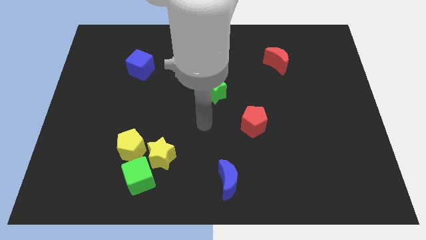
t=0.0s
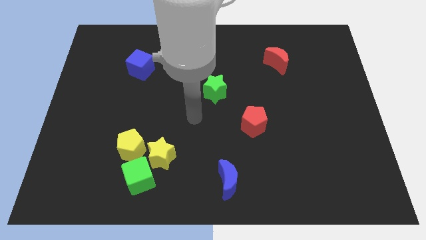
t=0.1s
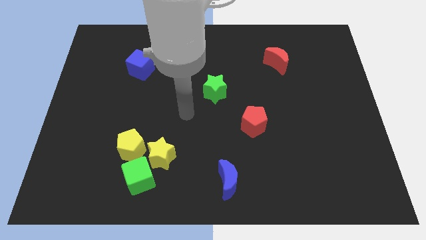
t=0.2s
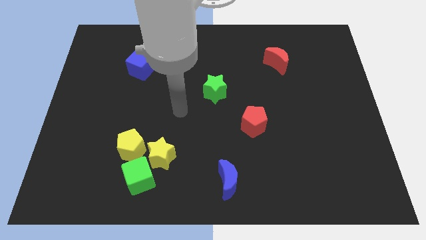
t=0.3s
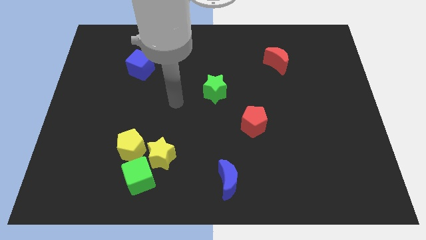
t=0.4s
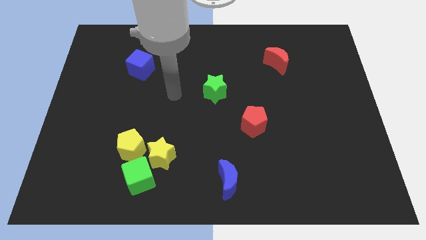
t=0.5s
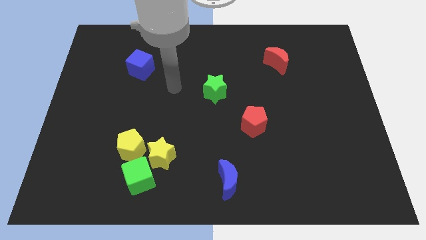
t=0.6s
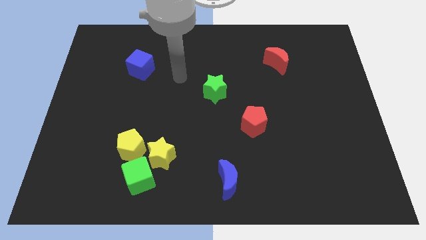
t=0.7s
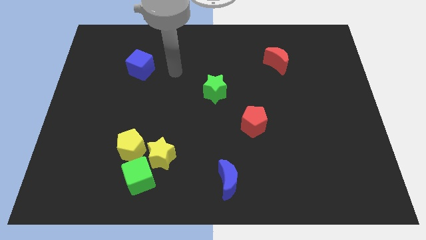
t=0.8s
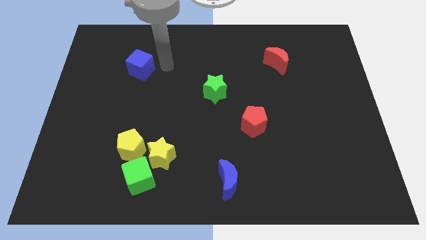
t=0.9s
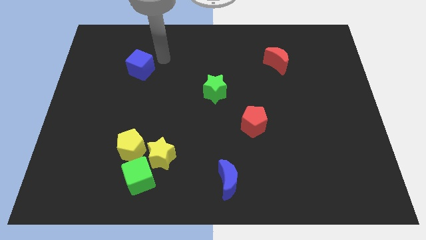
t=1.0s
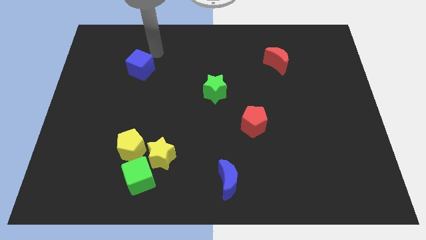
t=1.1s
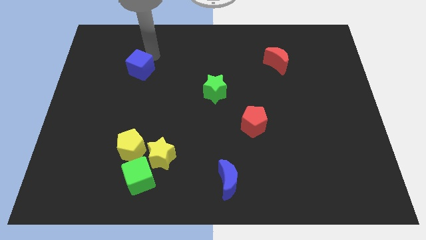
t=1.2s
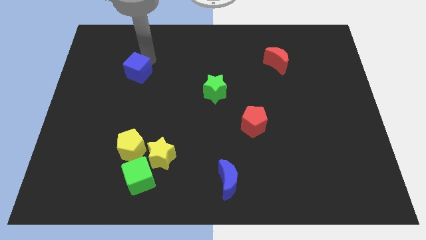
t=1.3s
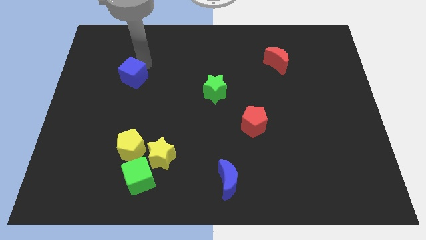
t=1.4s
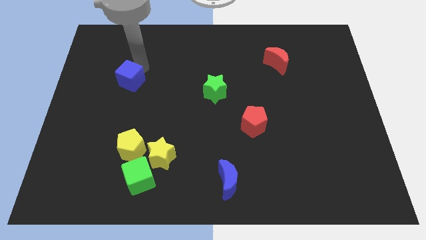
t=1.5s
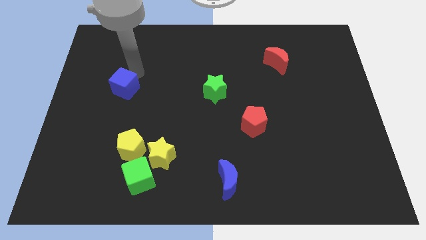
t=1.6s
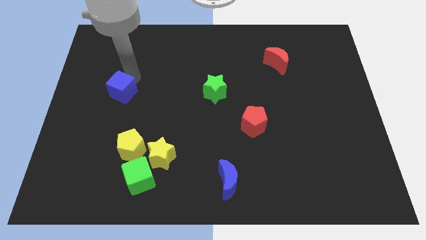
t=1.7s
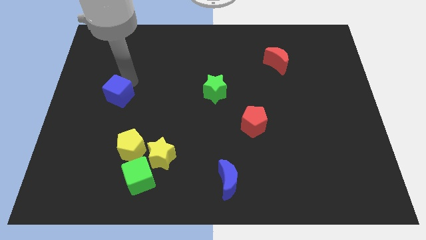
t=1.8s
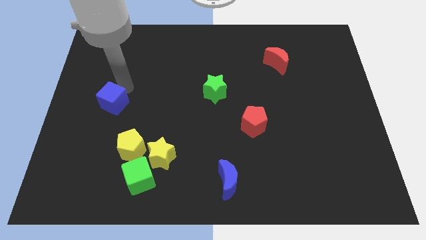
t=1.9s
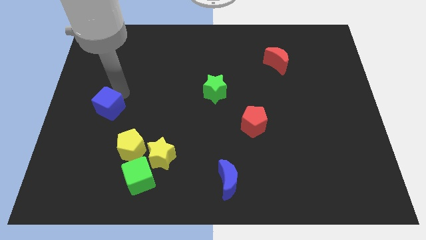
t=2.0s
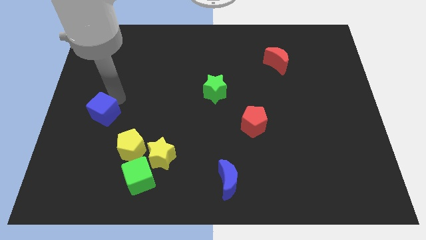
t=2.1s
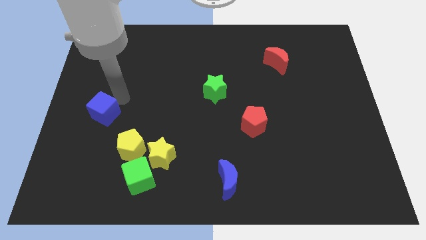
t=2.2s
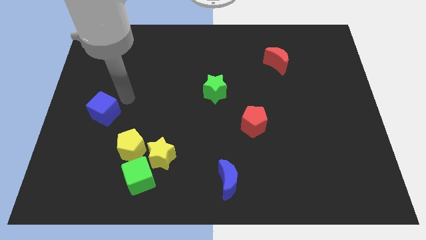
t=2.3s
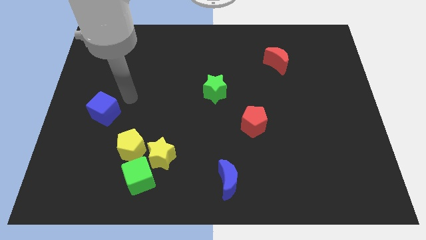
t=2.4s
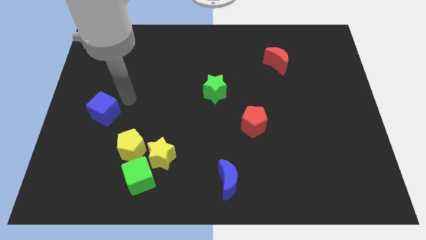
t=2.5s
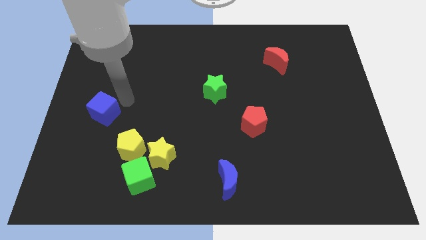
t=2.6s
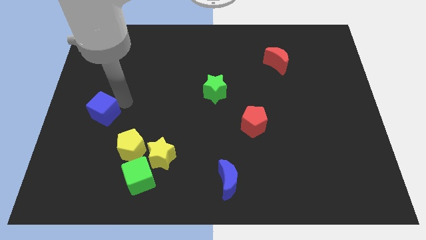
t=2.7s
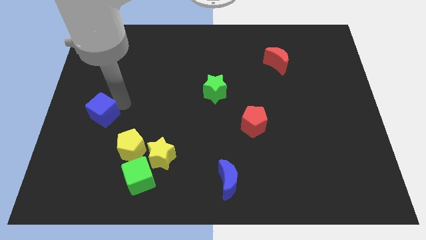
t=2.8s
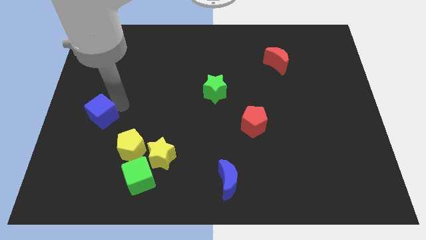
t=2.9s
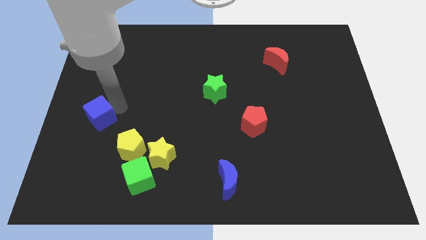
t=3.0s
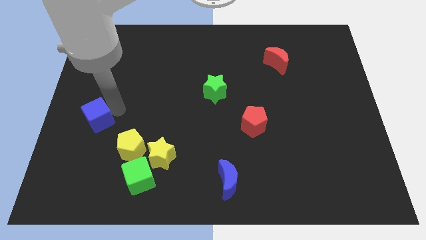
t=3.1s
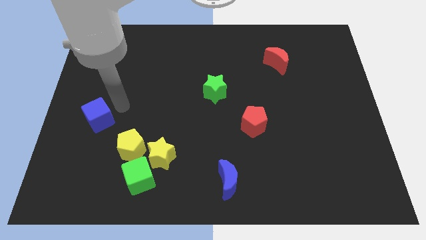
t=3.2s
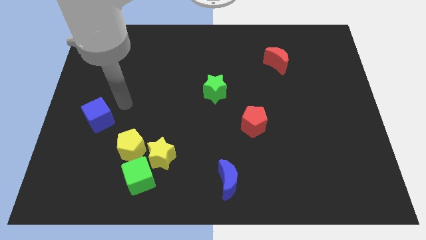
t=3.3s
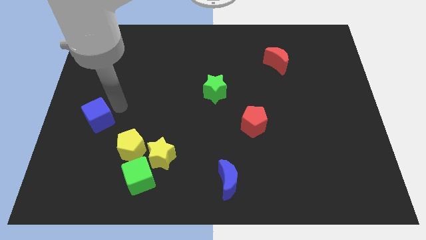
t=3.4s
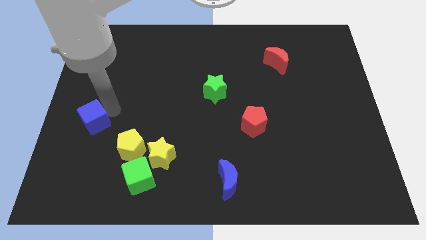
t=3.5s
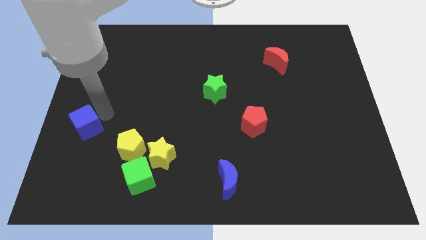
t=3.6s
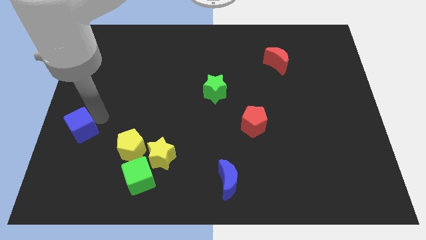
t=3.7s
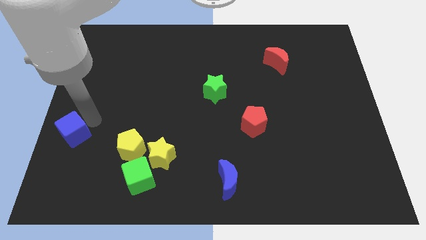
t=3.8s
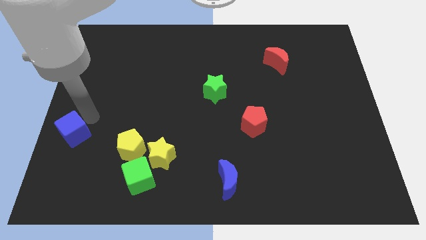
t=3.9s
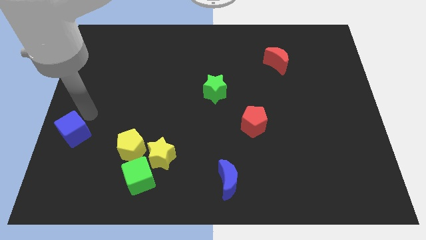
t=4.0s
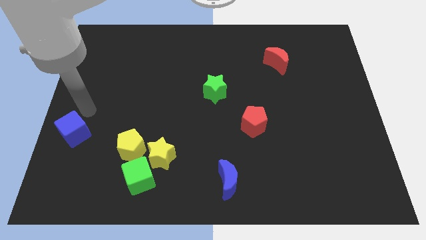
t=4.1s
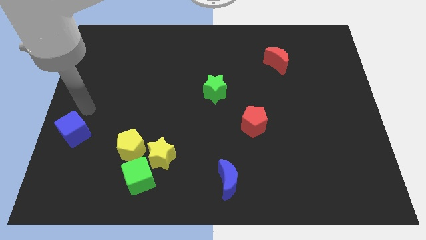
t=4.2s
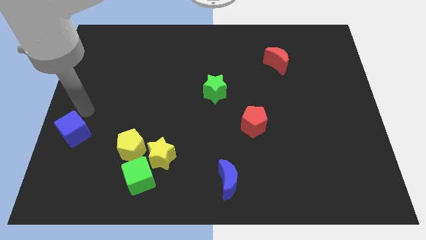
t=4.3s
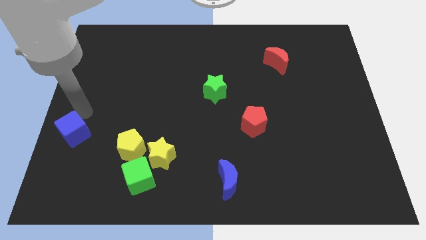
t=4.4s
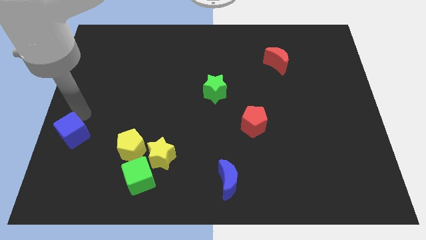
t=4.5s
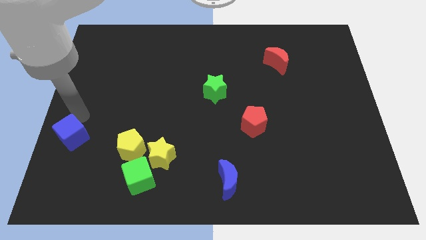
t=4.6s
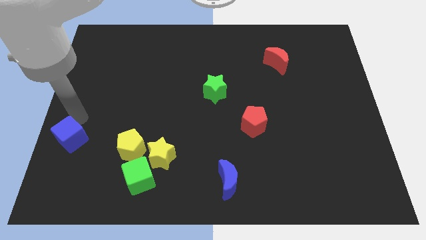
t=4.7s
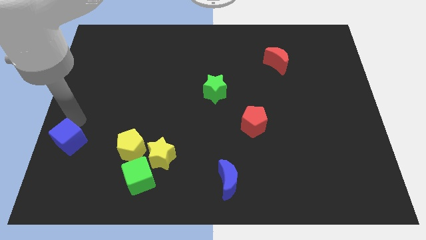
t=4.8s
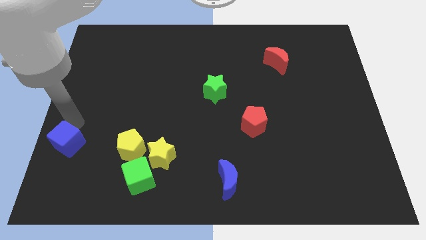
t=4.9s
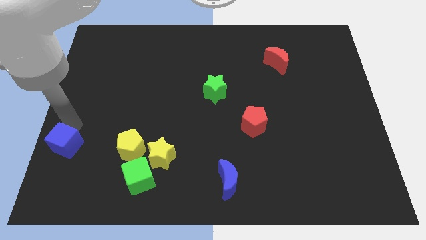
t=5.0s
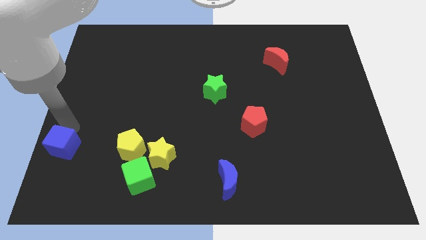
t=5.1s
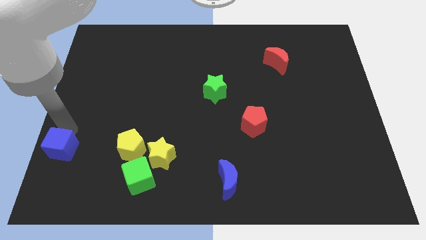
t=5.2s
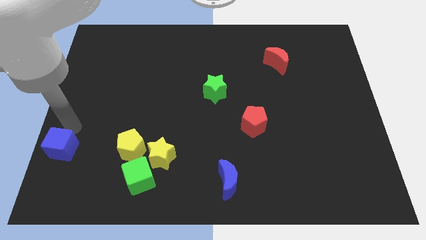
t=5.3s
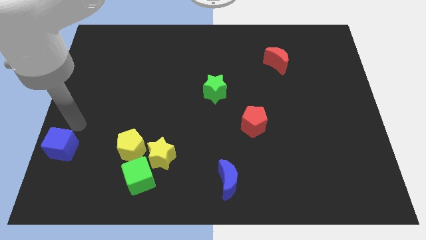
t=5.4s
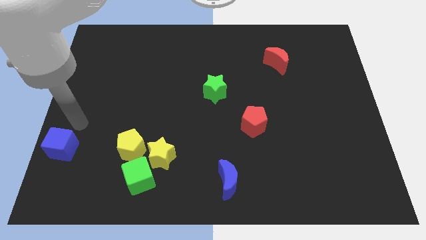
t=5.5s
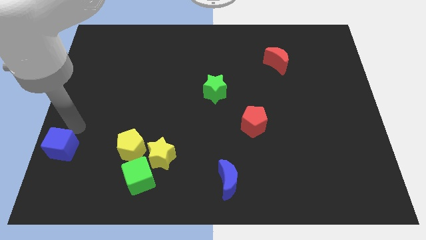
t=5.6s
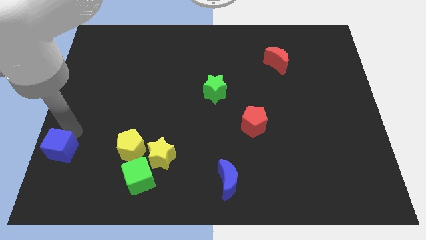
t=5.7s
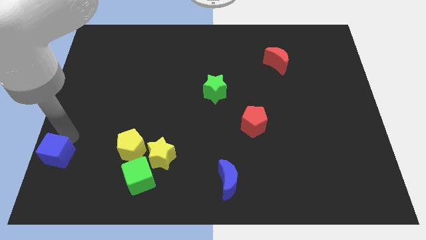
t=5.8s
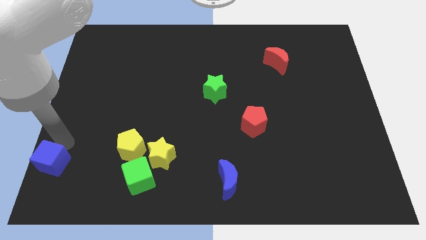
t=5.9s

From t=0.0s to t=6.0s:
slide the blue cube to the lower left corner
